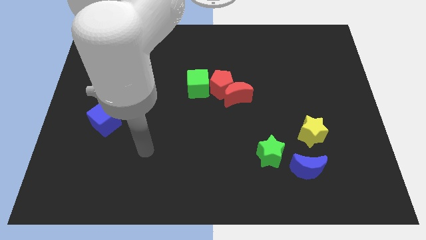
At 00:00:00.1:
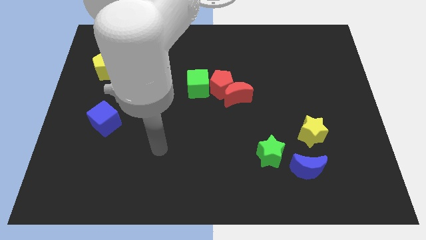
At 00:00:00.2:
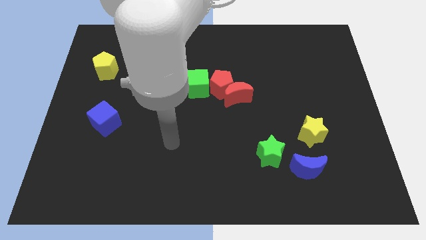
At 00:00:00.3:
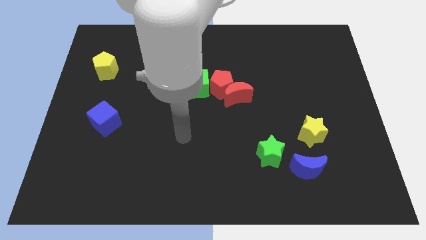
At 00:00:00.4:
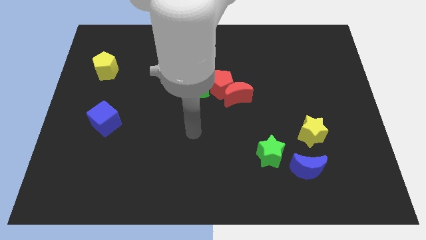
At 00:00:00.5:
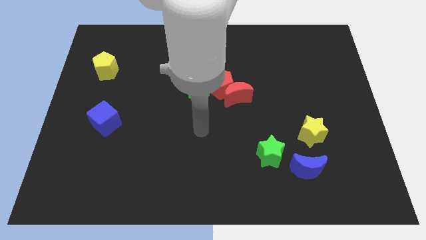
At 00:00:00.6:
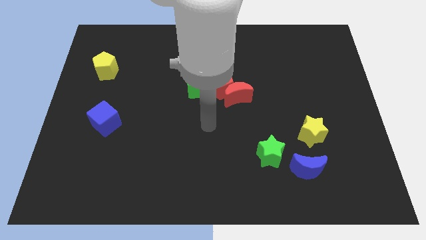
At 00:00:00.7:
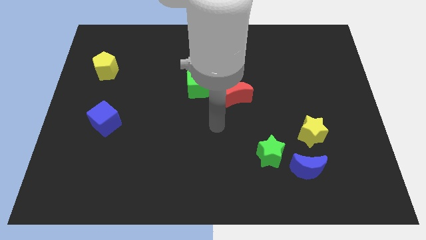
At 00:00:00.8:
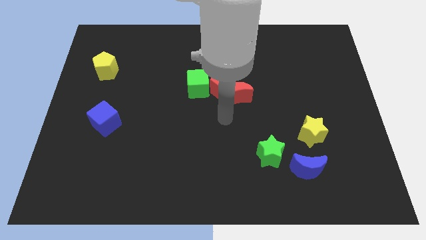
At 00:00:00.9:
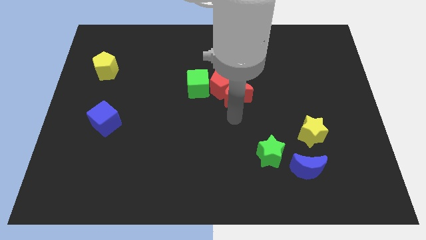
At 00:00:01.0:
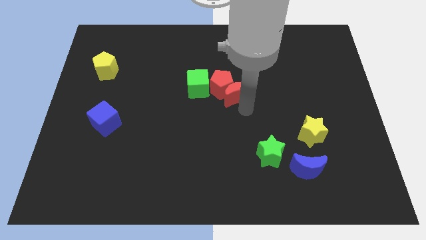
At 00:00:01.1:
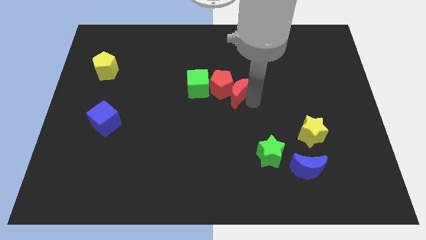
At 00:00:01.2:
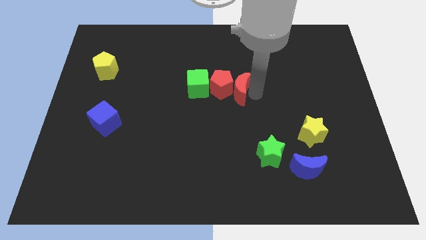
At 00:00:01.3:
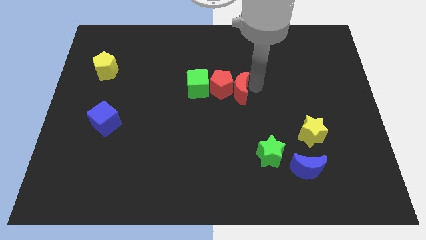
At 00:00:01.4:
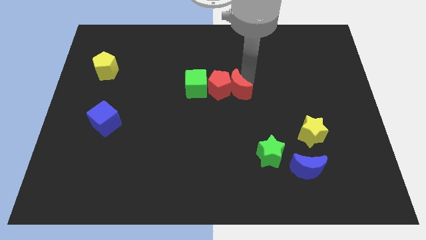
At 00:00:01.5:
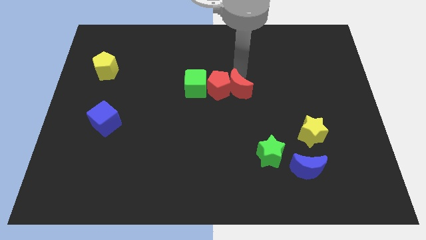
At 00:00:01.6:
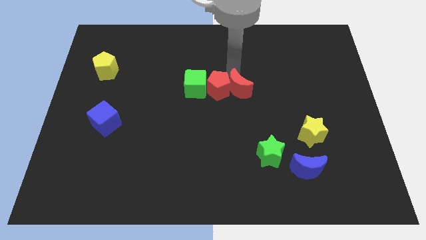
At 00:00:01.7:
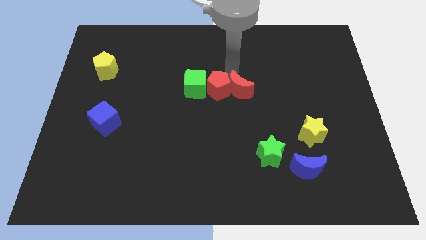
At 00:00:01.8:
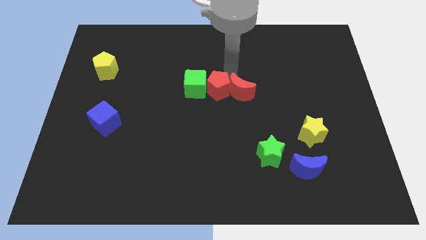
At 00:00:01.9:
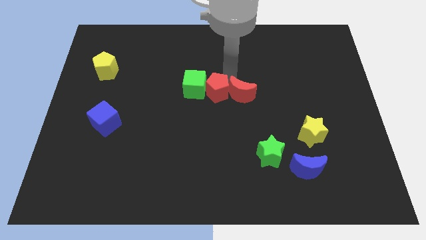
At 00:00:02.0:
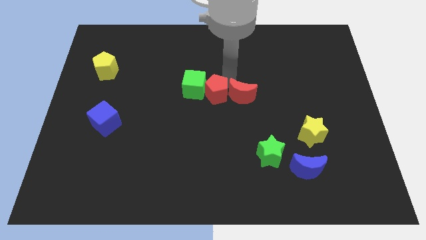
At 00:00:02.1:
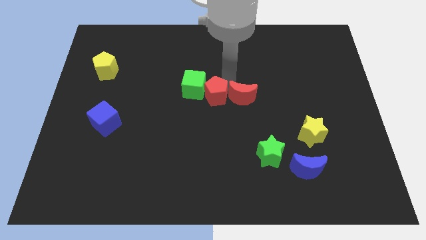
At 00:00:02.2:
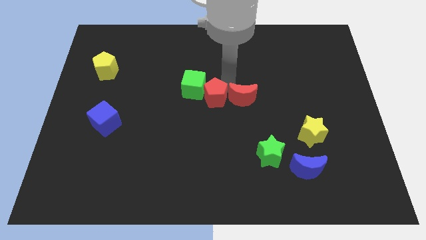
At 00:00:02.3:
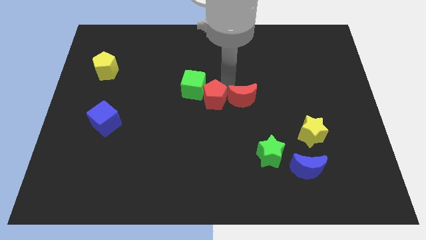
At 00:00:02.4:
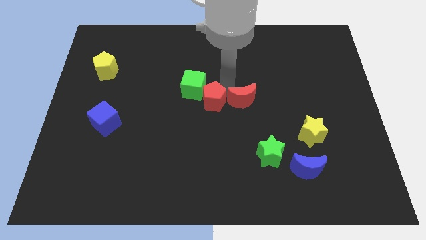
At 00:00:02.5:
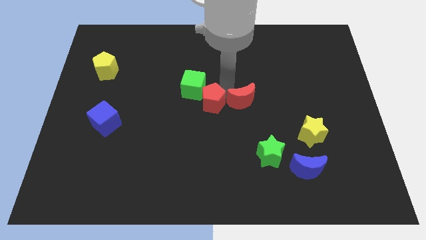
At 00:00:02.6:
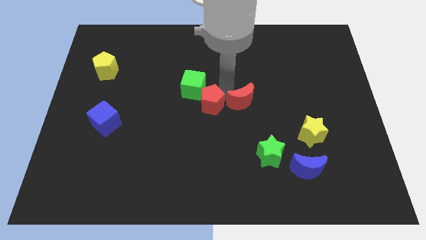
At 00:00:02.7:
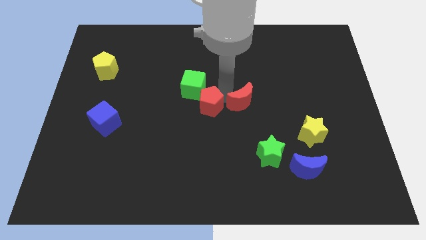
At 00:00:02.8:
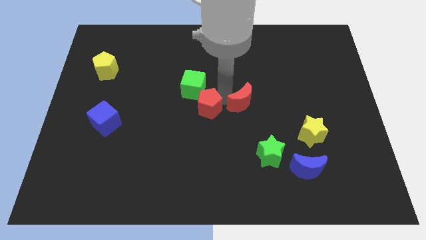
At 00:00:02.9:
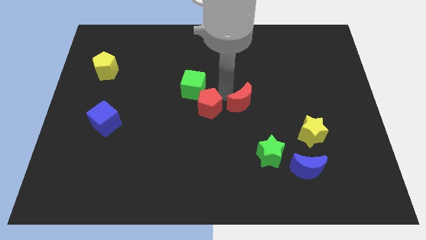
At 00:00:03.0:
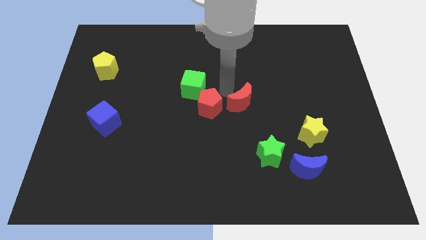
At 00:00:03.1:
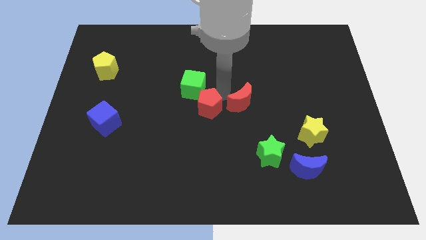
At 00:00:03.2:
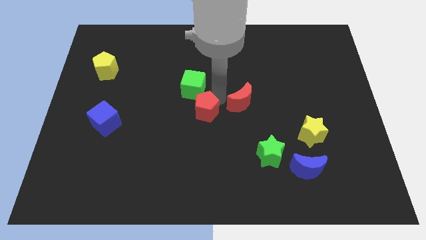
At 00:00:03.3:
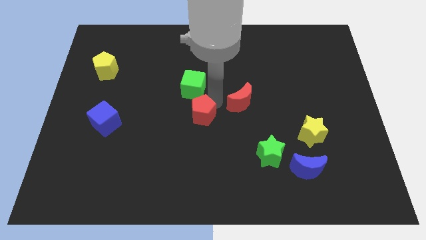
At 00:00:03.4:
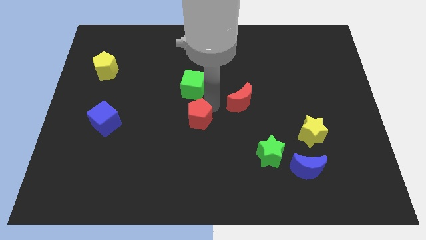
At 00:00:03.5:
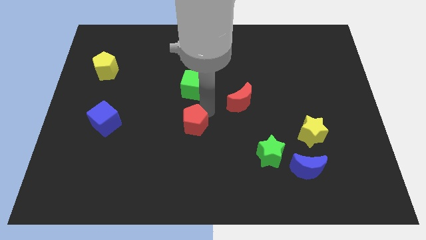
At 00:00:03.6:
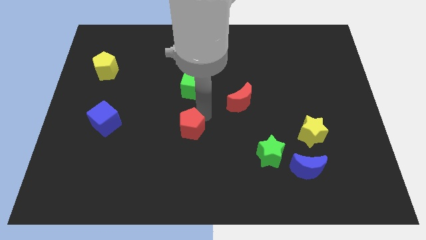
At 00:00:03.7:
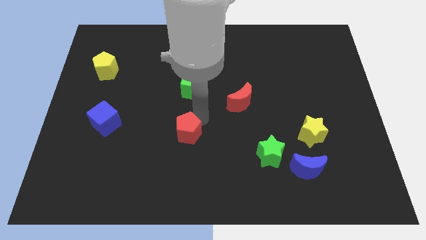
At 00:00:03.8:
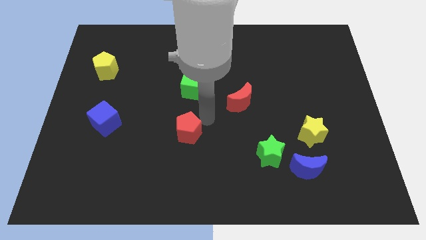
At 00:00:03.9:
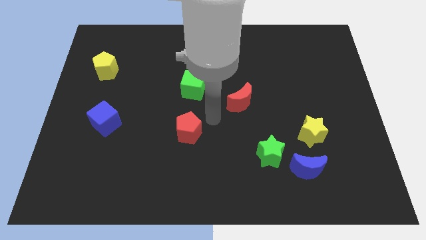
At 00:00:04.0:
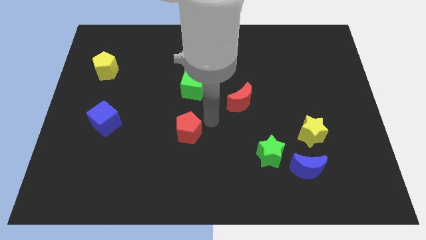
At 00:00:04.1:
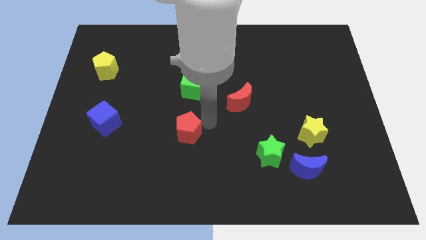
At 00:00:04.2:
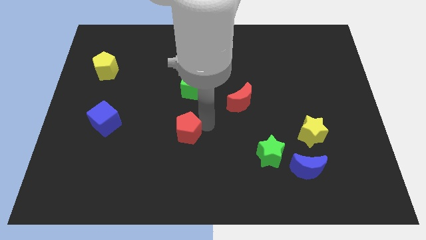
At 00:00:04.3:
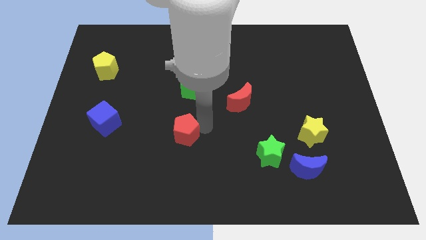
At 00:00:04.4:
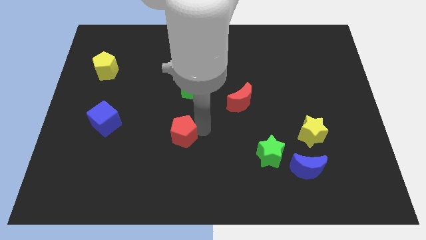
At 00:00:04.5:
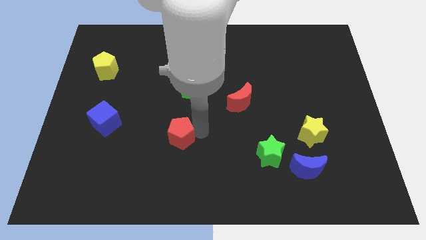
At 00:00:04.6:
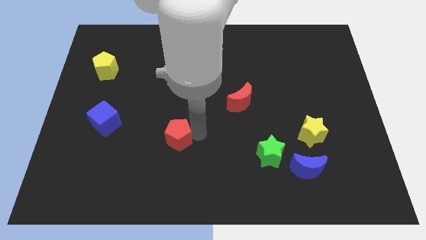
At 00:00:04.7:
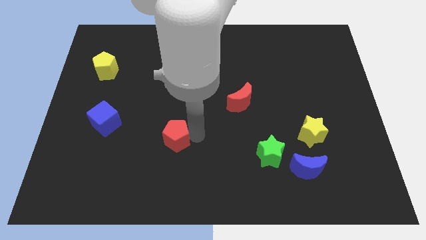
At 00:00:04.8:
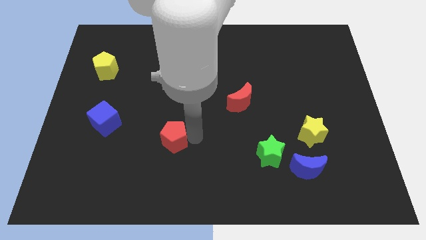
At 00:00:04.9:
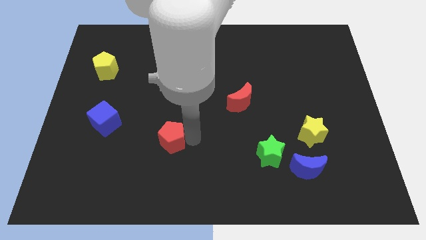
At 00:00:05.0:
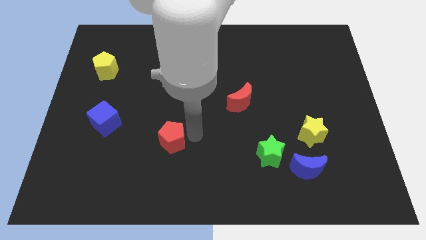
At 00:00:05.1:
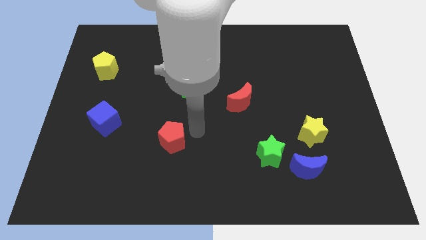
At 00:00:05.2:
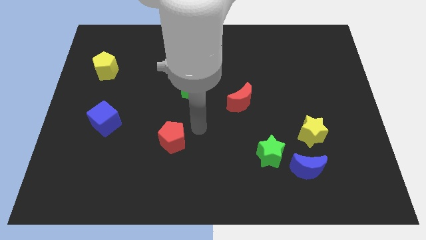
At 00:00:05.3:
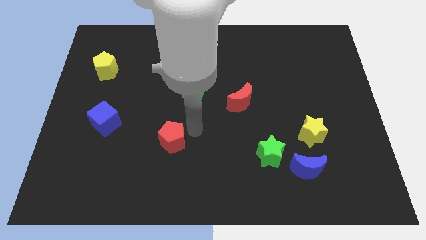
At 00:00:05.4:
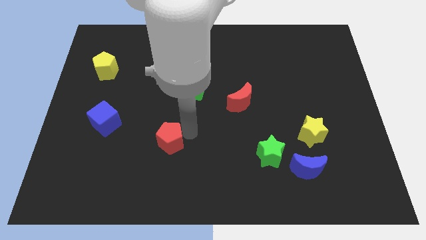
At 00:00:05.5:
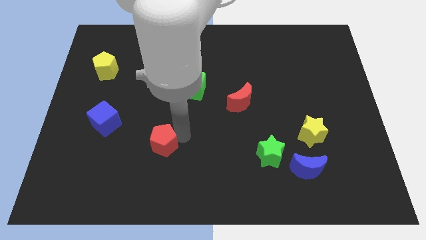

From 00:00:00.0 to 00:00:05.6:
push the red pentagon downwards and then left

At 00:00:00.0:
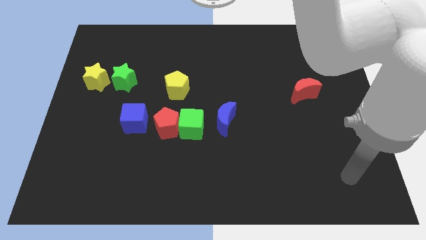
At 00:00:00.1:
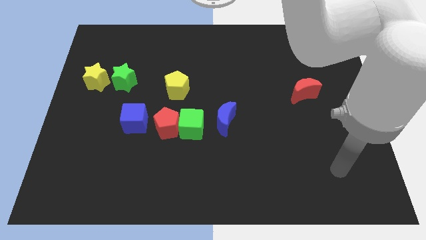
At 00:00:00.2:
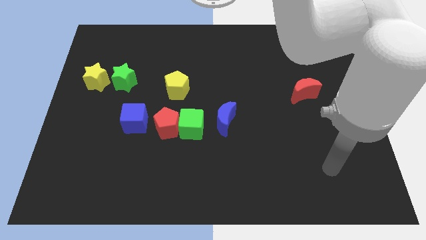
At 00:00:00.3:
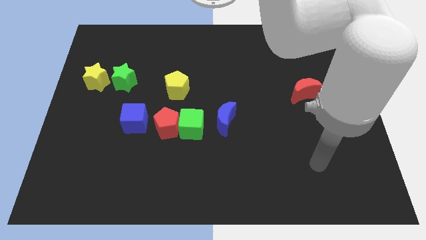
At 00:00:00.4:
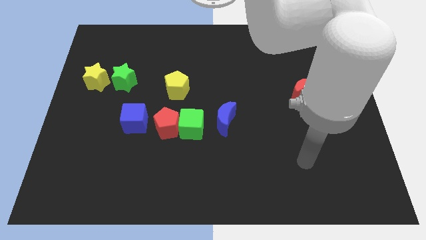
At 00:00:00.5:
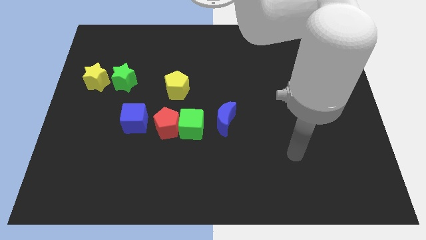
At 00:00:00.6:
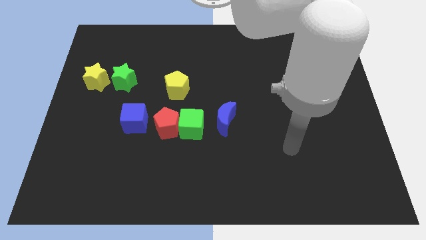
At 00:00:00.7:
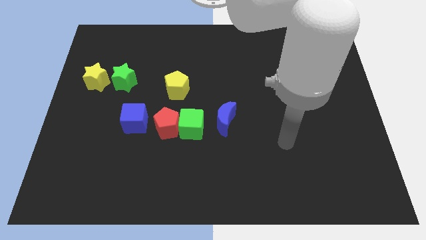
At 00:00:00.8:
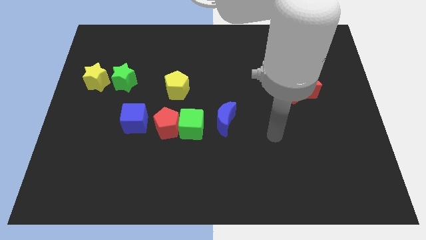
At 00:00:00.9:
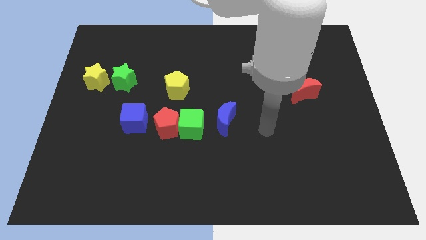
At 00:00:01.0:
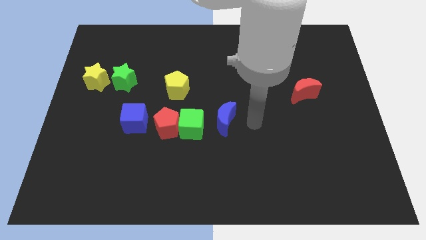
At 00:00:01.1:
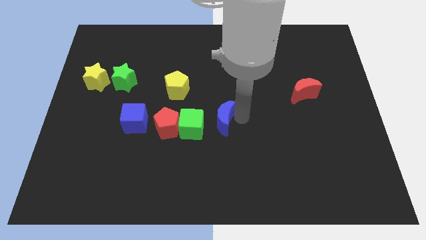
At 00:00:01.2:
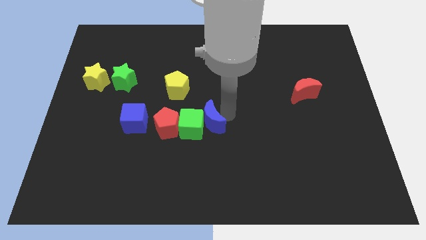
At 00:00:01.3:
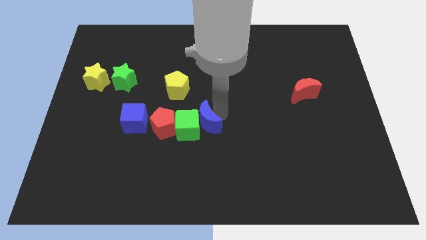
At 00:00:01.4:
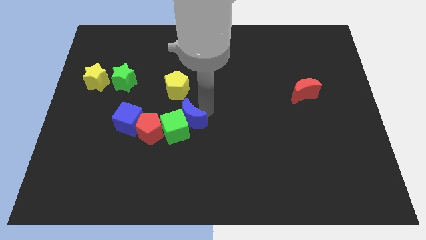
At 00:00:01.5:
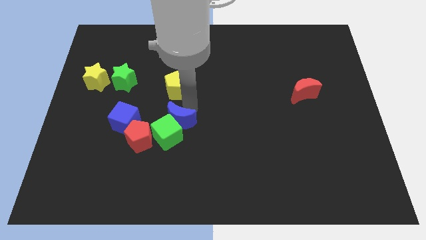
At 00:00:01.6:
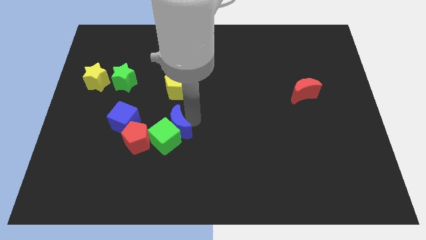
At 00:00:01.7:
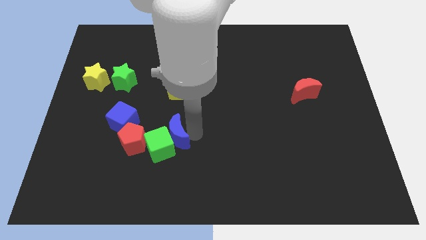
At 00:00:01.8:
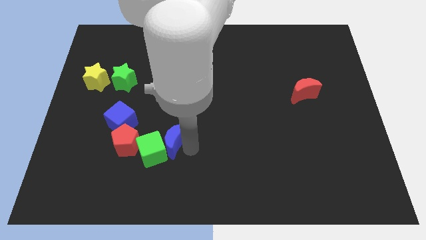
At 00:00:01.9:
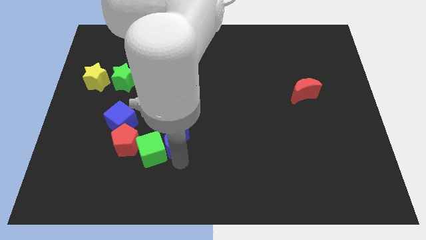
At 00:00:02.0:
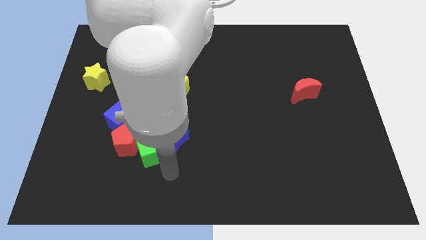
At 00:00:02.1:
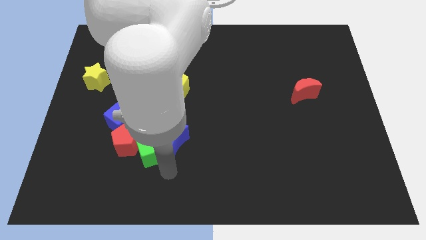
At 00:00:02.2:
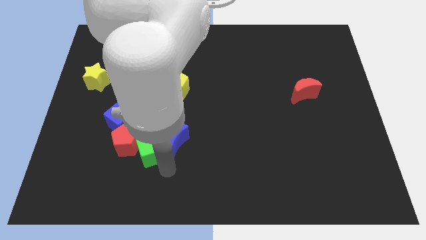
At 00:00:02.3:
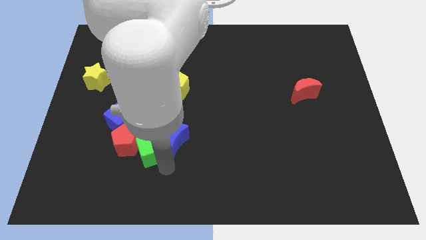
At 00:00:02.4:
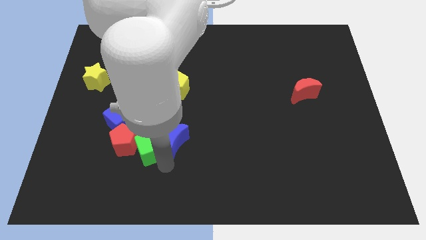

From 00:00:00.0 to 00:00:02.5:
slightly slide the green cube to the left
